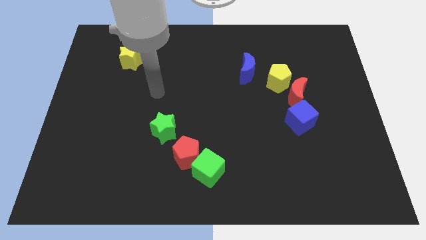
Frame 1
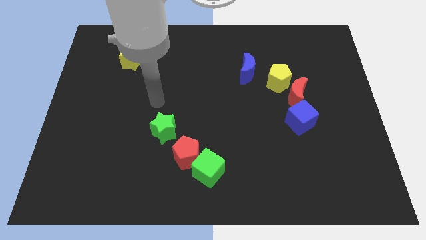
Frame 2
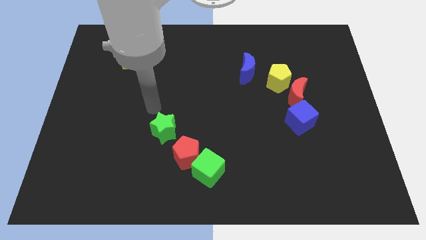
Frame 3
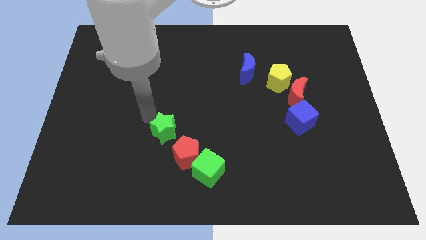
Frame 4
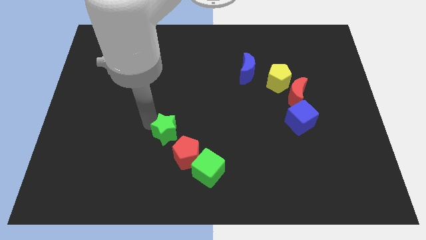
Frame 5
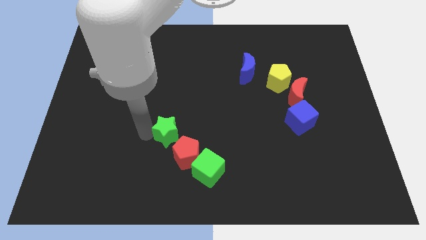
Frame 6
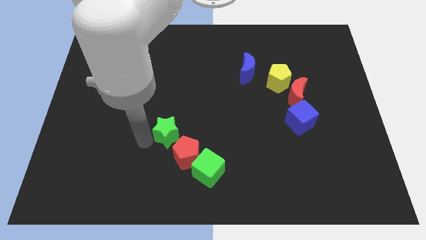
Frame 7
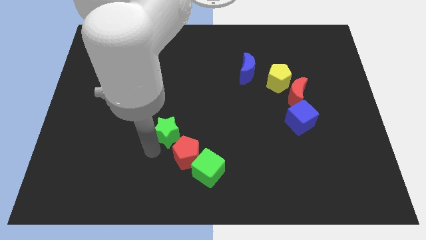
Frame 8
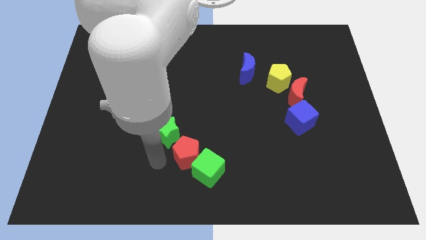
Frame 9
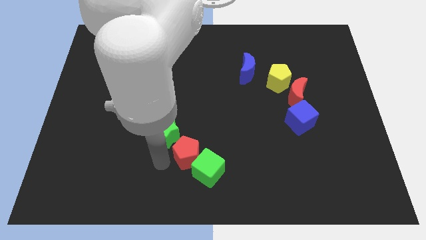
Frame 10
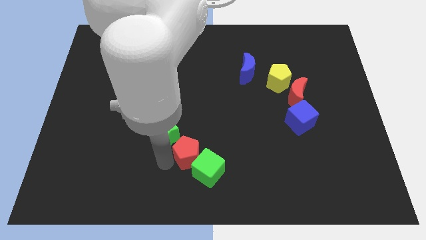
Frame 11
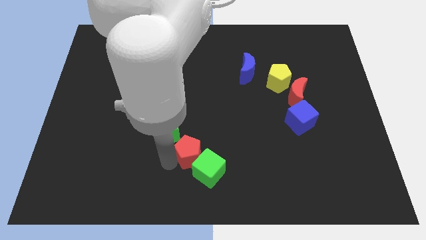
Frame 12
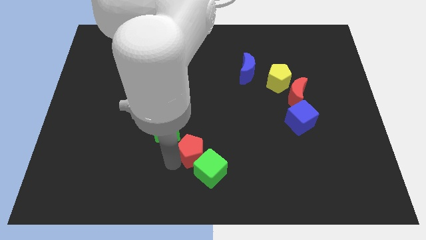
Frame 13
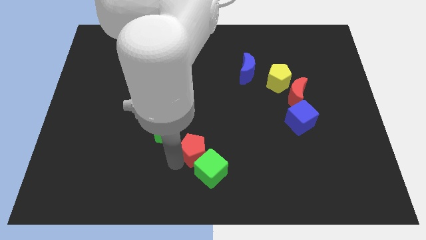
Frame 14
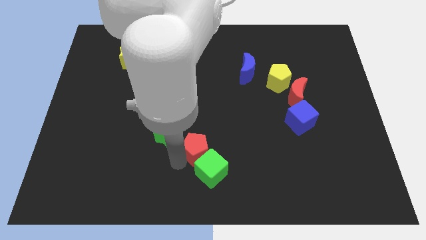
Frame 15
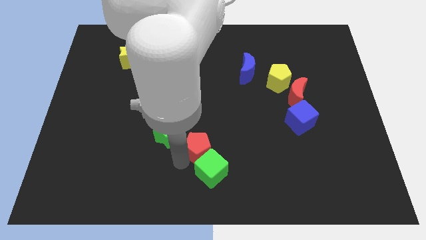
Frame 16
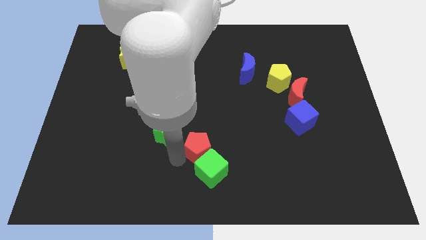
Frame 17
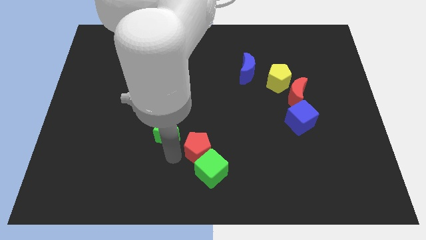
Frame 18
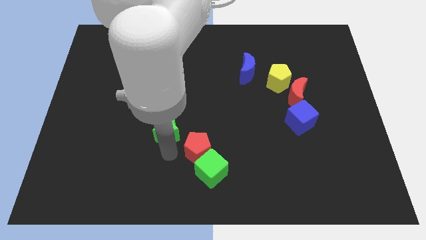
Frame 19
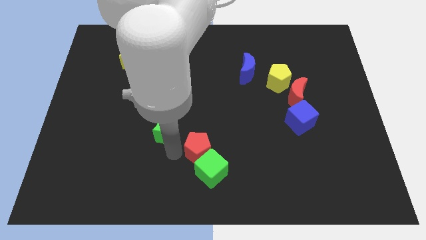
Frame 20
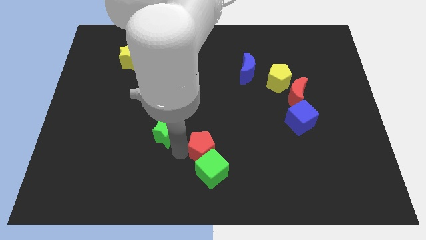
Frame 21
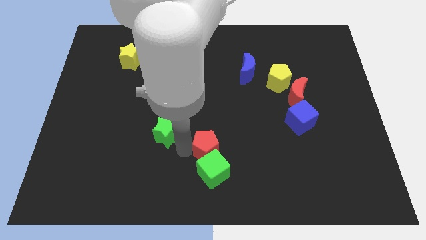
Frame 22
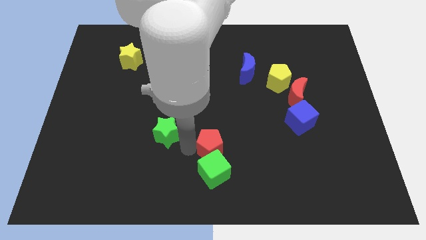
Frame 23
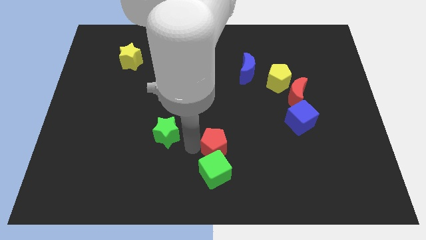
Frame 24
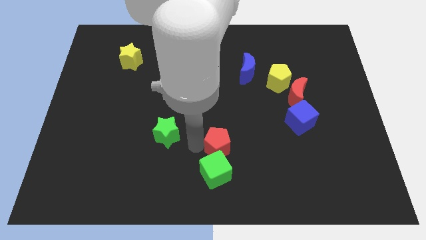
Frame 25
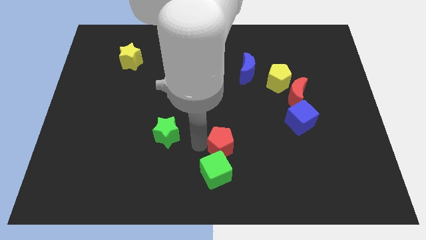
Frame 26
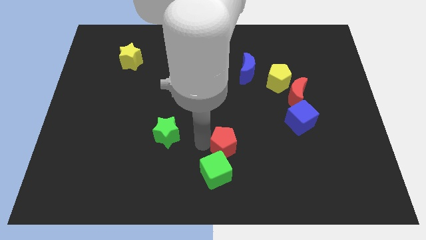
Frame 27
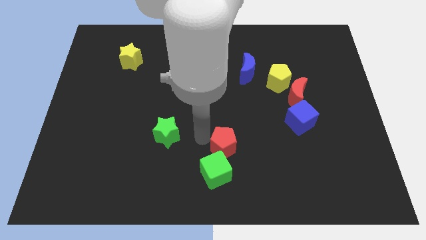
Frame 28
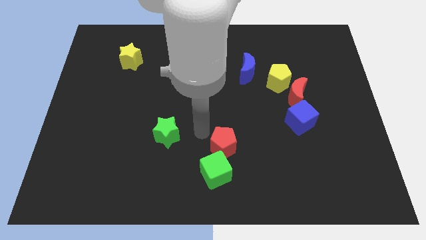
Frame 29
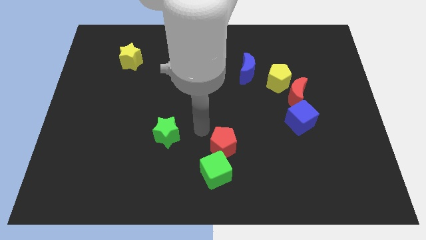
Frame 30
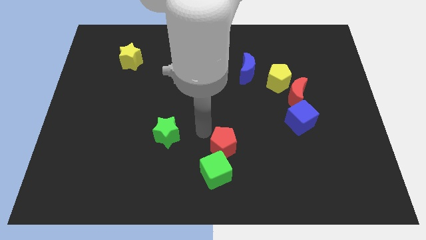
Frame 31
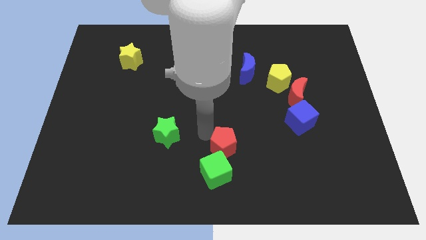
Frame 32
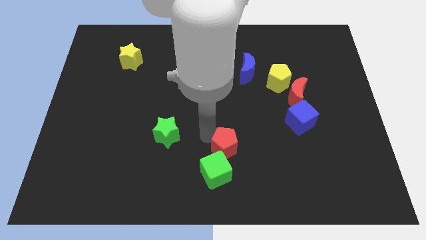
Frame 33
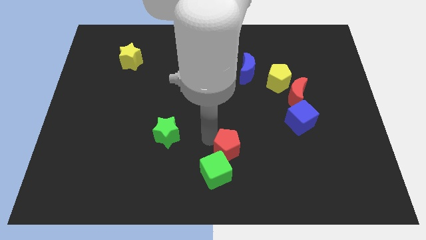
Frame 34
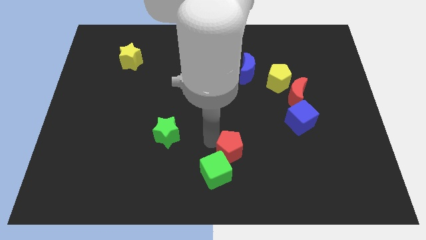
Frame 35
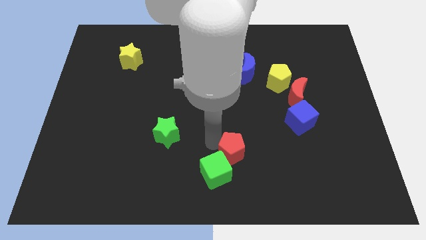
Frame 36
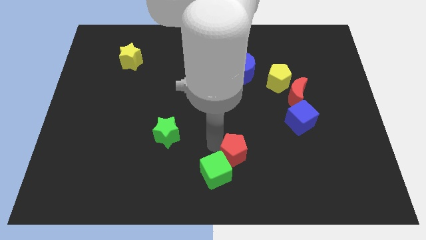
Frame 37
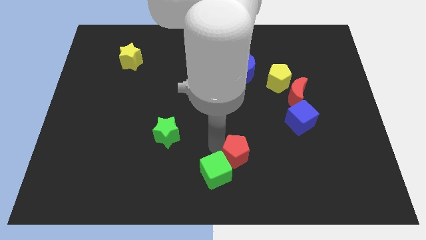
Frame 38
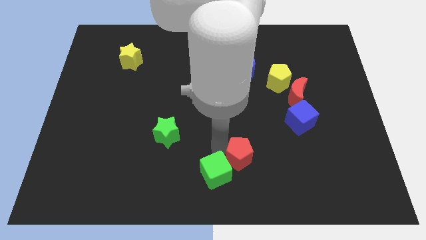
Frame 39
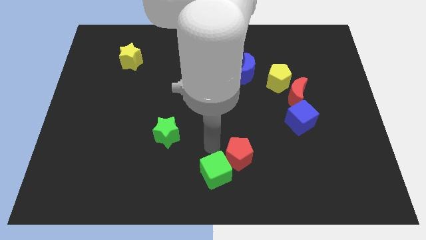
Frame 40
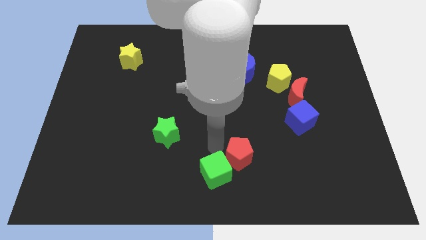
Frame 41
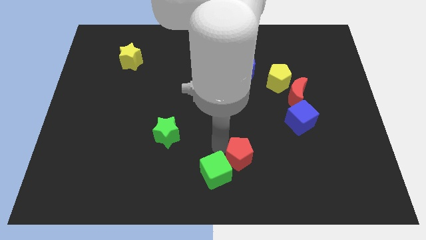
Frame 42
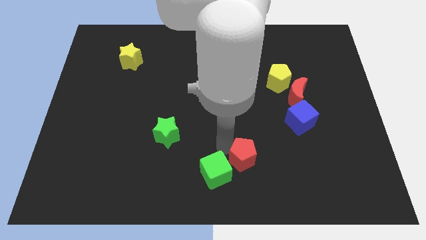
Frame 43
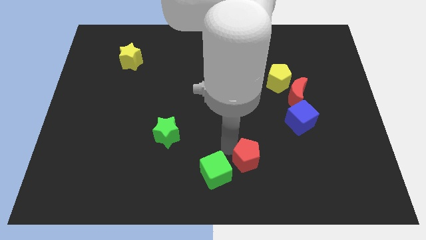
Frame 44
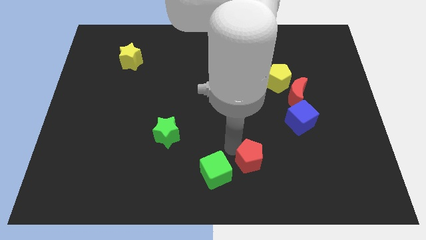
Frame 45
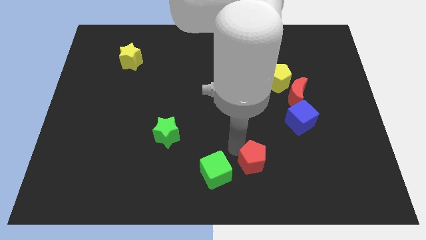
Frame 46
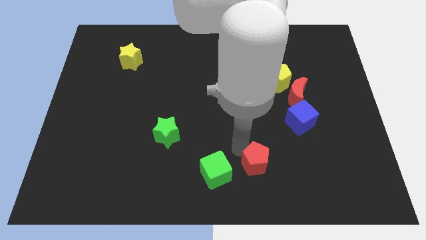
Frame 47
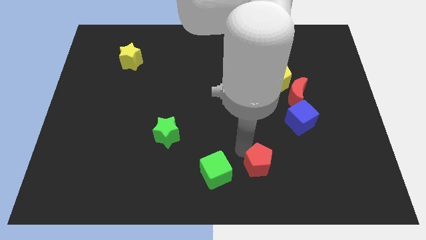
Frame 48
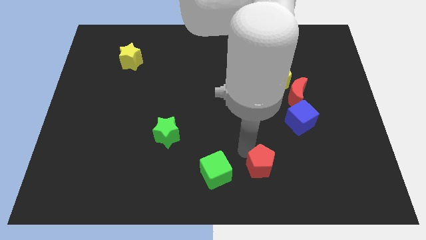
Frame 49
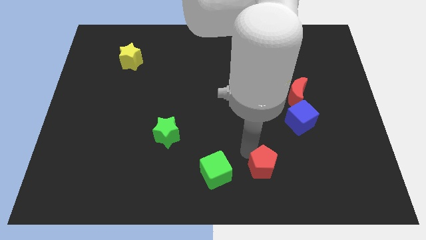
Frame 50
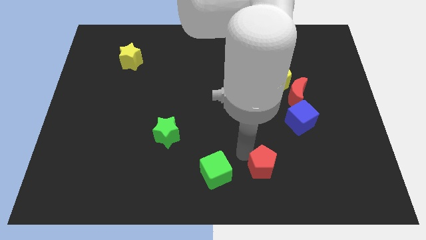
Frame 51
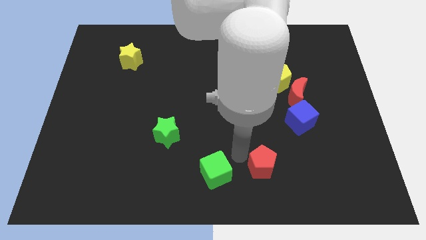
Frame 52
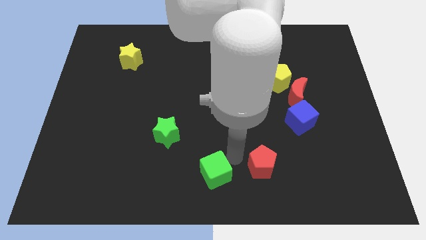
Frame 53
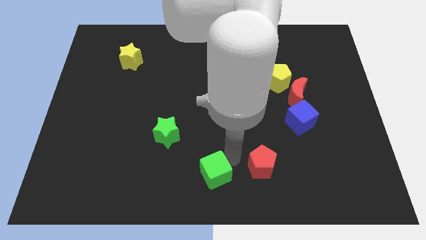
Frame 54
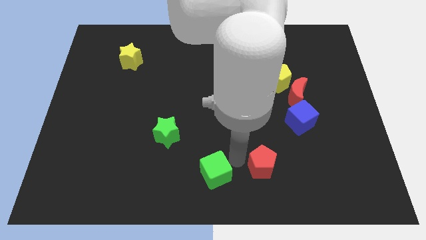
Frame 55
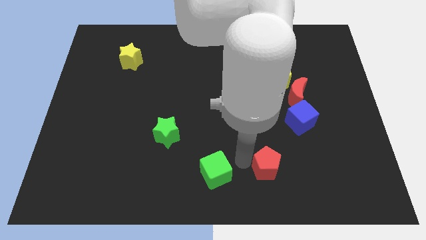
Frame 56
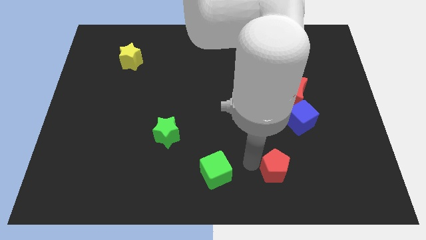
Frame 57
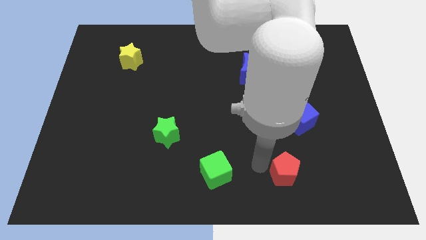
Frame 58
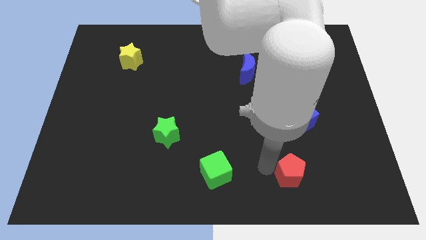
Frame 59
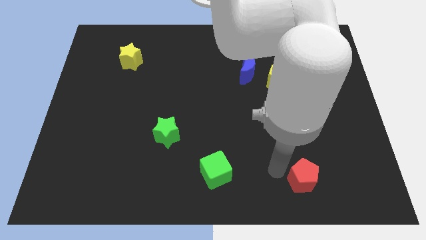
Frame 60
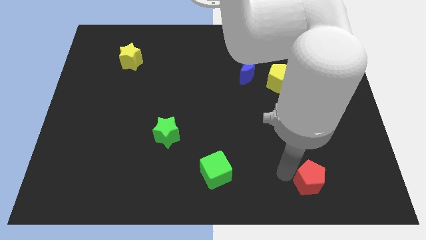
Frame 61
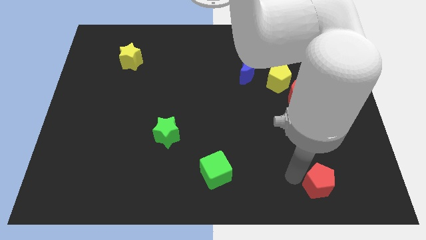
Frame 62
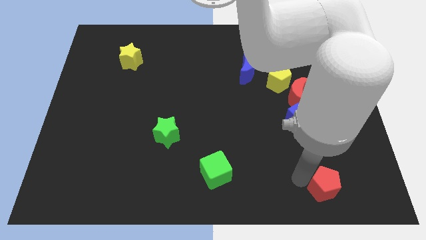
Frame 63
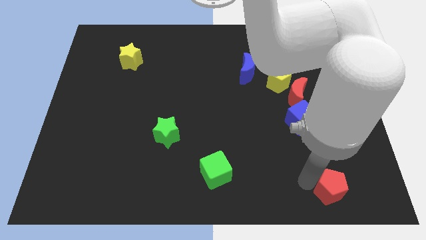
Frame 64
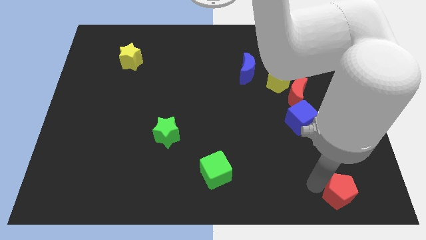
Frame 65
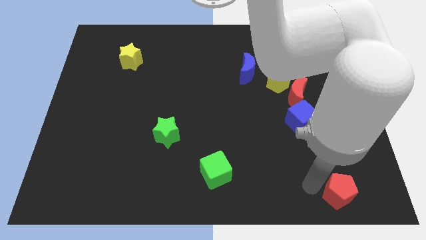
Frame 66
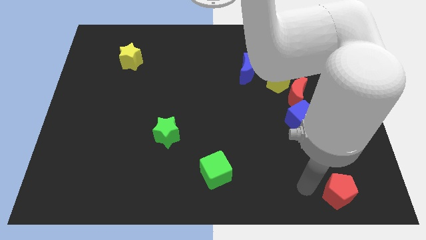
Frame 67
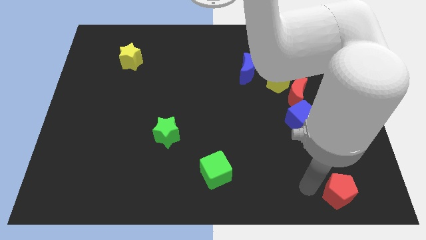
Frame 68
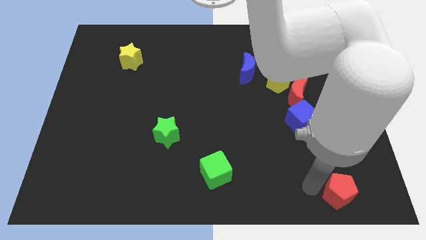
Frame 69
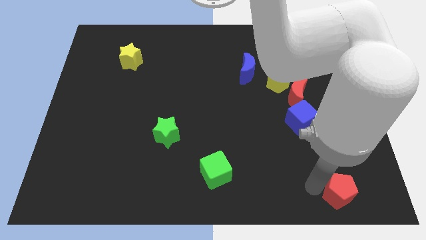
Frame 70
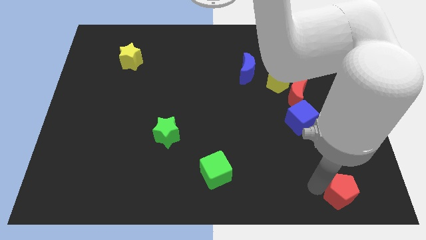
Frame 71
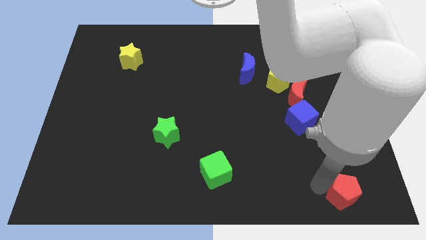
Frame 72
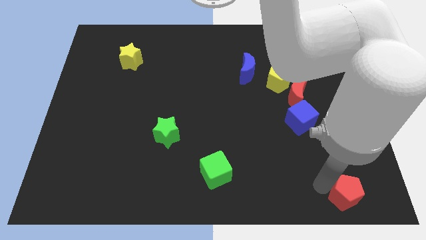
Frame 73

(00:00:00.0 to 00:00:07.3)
put the red pentagon to the bottom right corner
